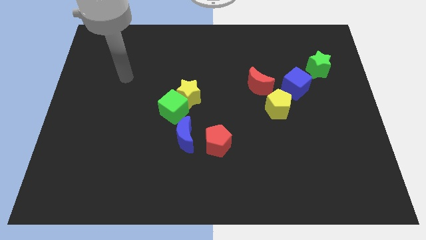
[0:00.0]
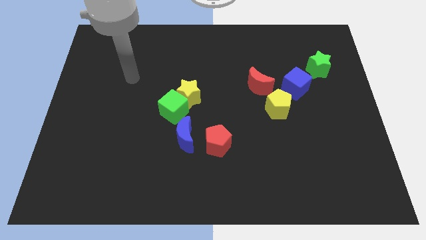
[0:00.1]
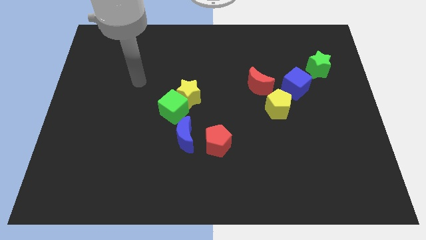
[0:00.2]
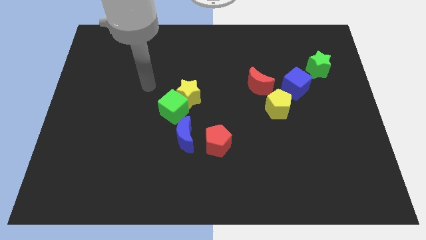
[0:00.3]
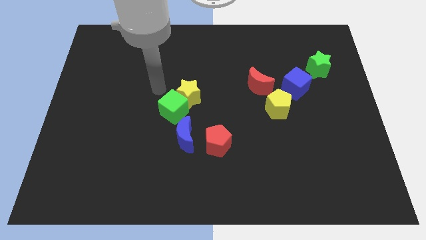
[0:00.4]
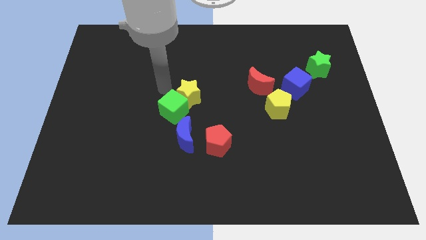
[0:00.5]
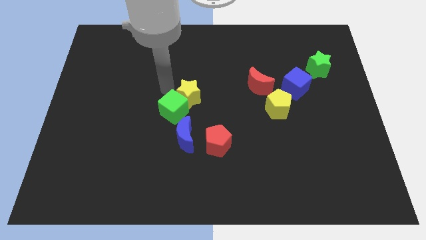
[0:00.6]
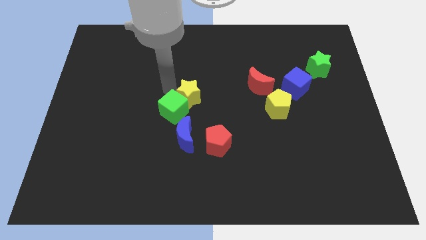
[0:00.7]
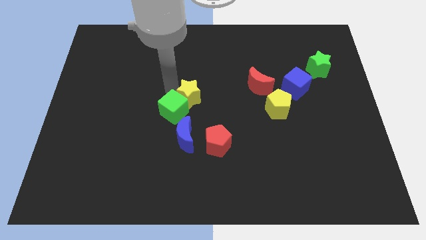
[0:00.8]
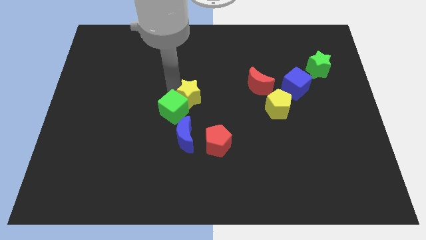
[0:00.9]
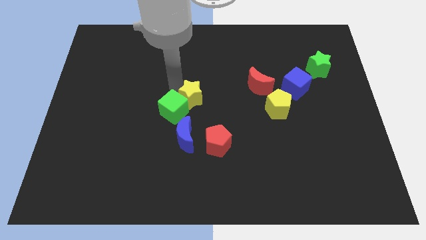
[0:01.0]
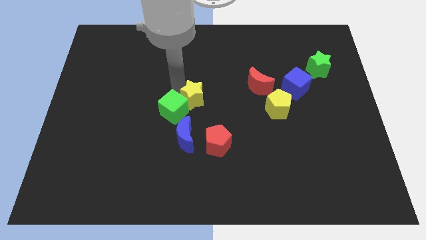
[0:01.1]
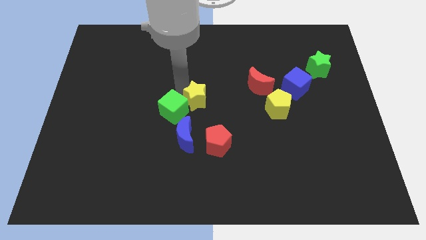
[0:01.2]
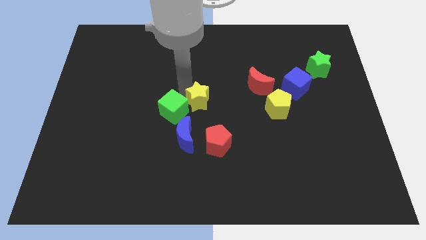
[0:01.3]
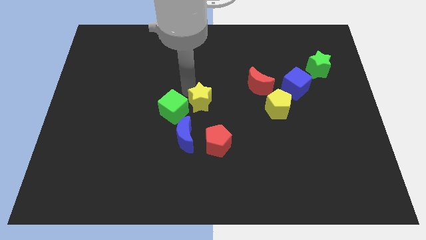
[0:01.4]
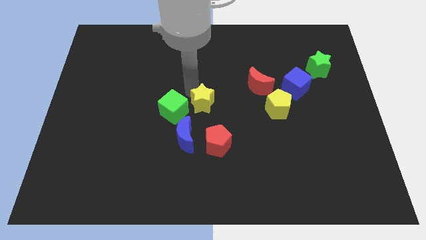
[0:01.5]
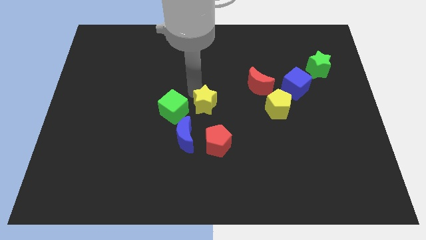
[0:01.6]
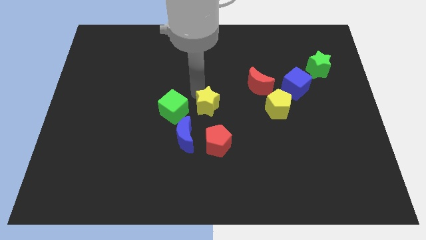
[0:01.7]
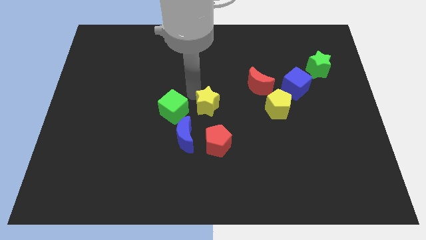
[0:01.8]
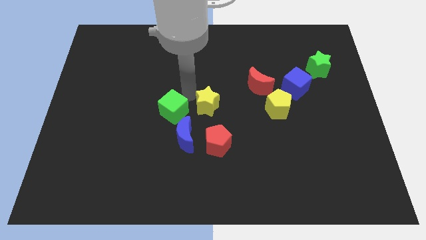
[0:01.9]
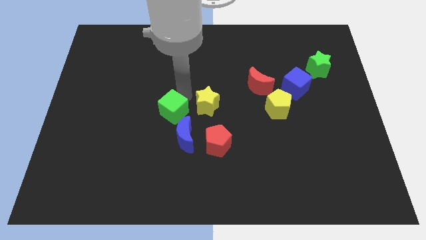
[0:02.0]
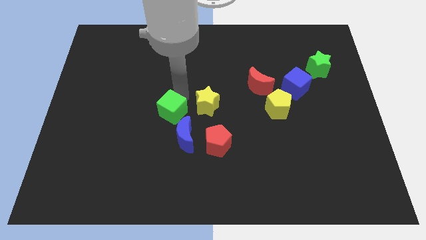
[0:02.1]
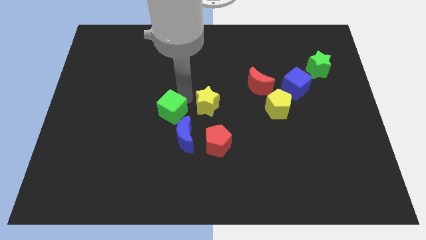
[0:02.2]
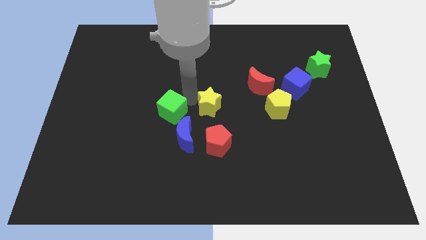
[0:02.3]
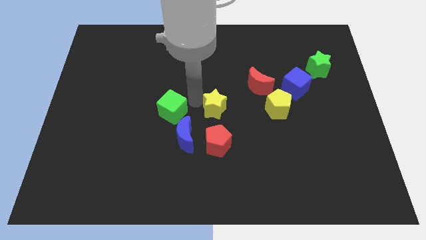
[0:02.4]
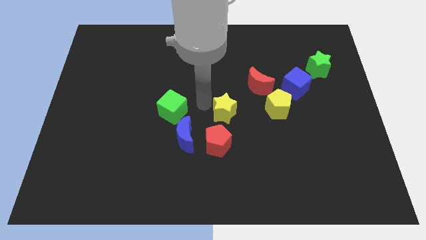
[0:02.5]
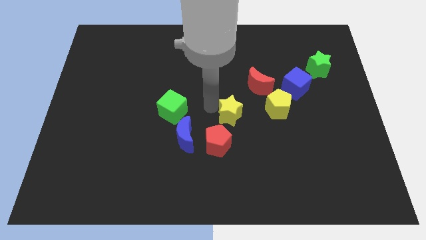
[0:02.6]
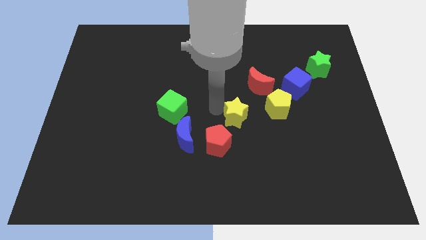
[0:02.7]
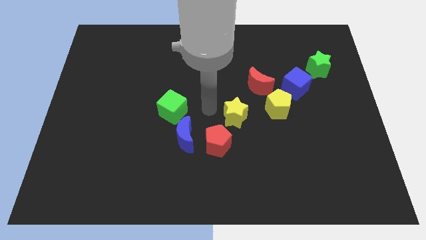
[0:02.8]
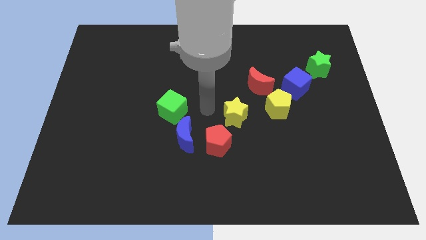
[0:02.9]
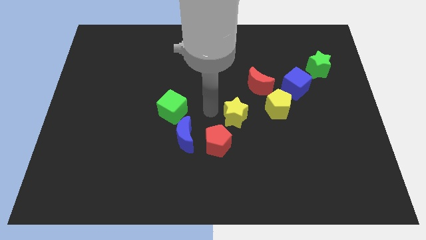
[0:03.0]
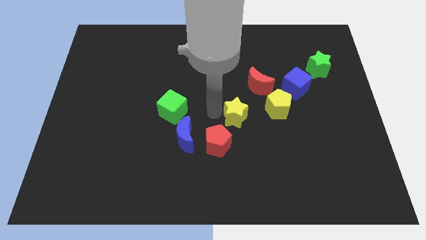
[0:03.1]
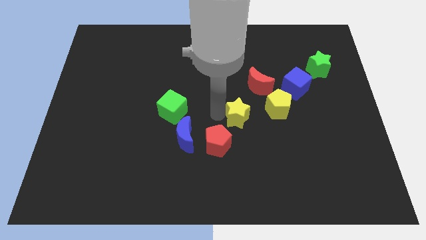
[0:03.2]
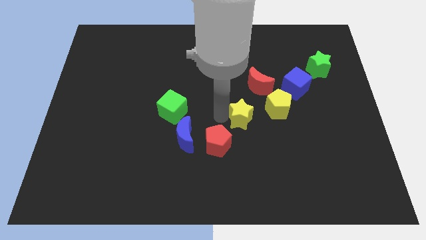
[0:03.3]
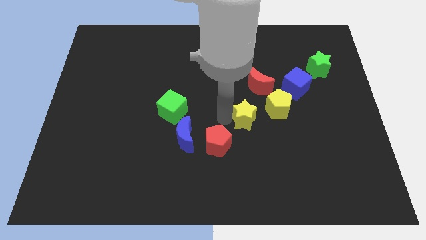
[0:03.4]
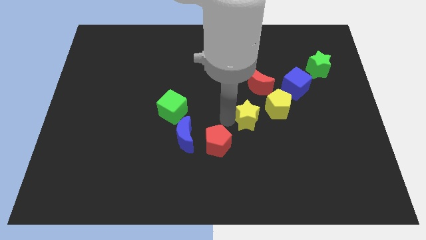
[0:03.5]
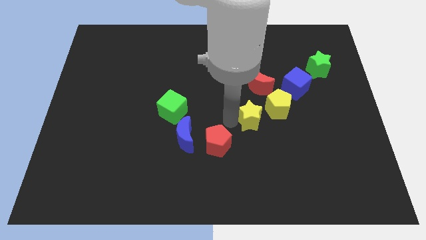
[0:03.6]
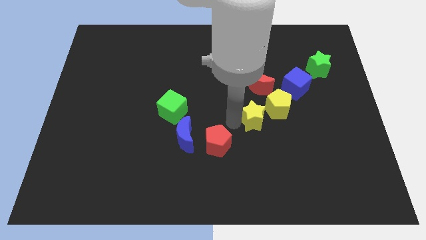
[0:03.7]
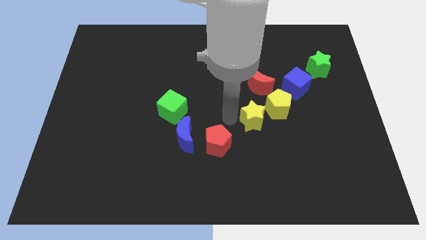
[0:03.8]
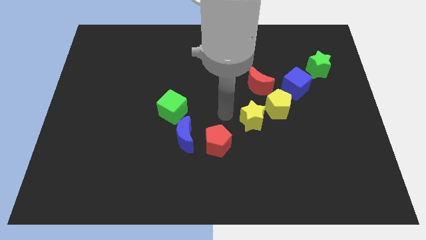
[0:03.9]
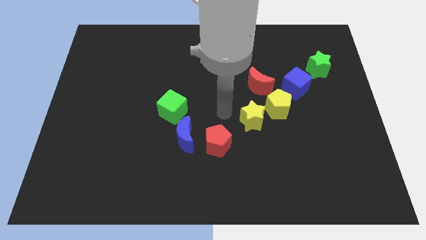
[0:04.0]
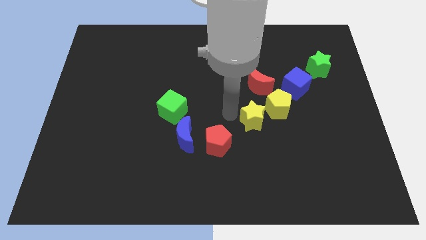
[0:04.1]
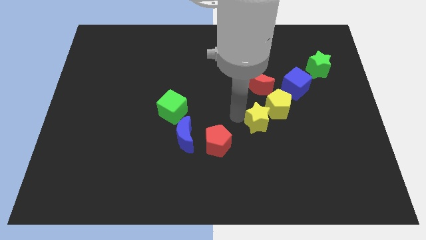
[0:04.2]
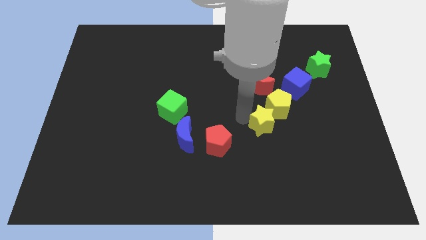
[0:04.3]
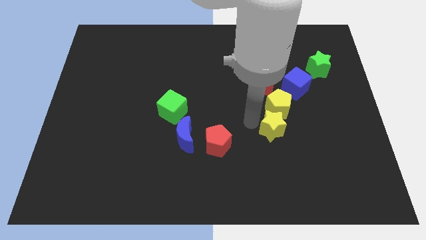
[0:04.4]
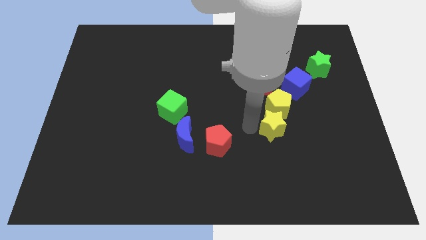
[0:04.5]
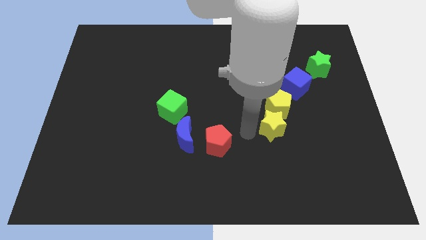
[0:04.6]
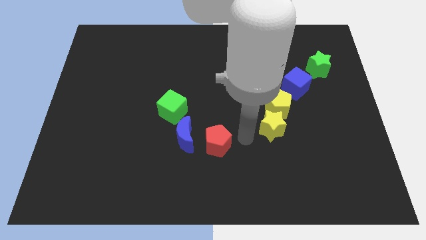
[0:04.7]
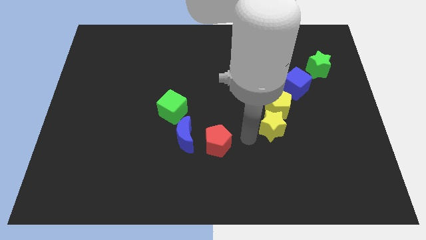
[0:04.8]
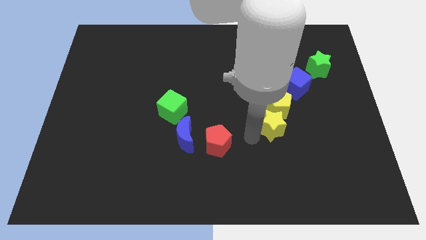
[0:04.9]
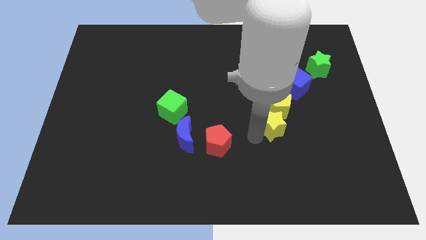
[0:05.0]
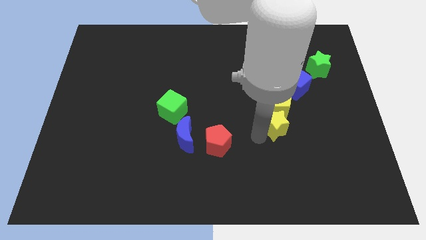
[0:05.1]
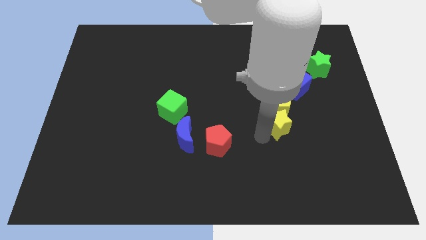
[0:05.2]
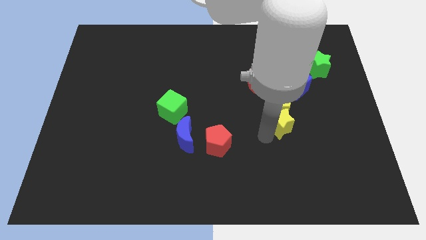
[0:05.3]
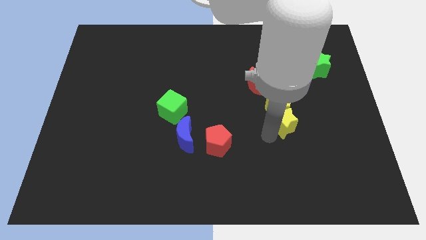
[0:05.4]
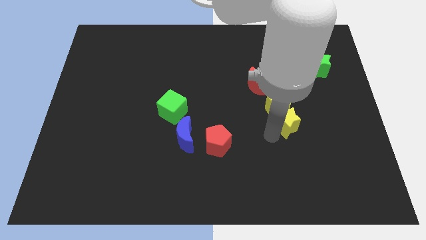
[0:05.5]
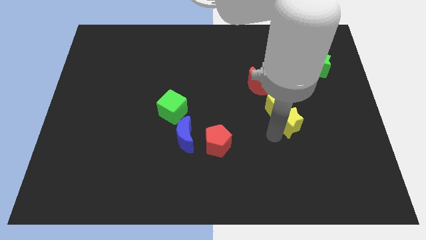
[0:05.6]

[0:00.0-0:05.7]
push the yellow star right

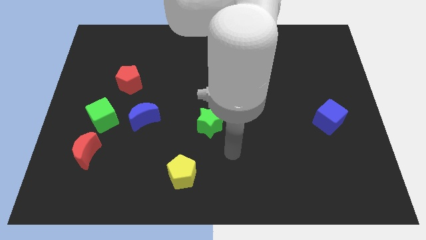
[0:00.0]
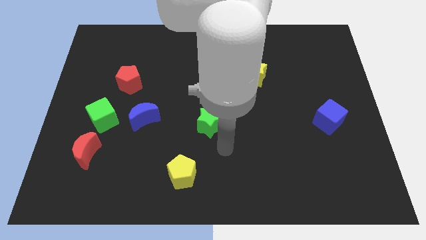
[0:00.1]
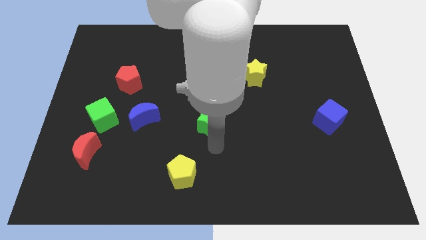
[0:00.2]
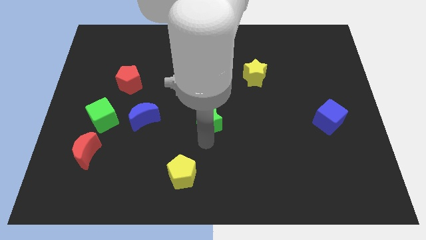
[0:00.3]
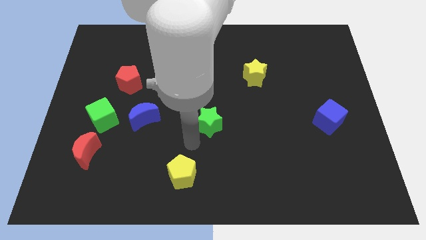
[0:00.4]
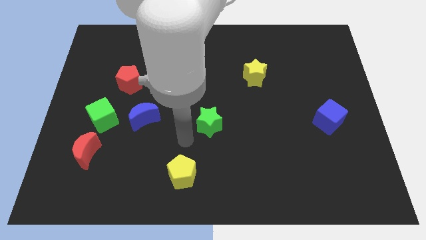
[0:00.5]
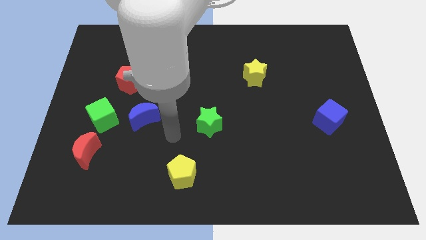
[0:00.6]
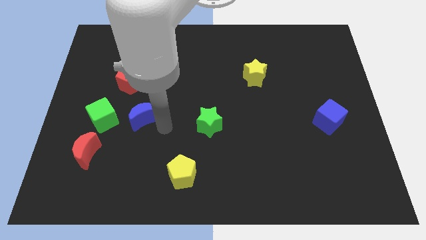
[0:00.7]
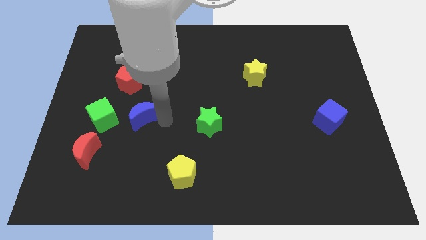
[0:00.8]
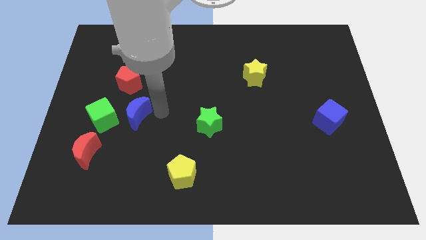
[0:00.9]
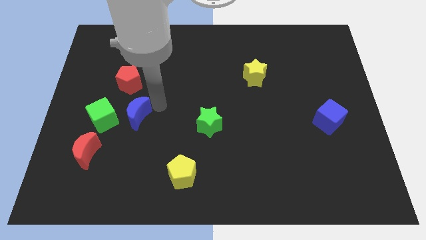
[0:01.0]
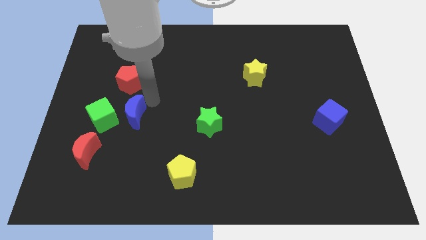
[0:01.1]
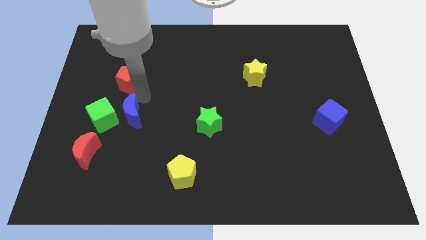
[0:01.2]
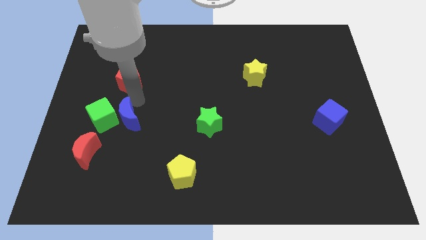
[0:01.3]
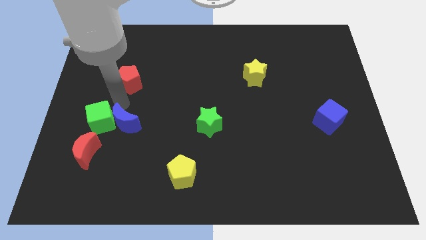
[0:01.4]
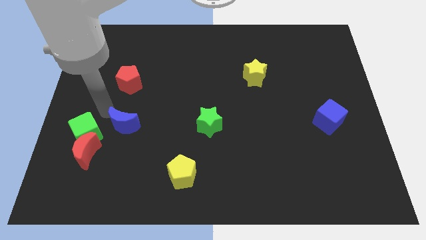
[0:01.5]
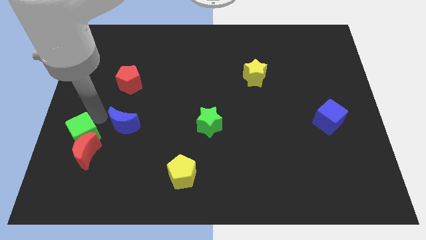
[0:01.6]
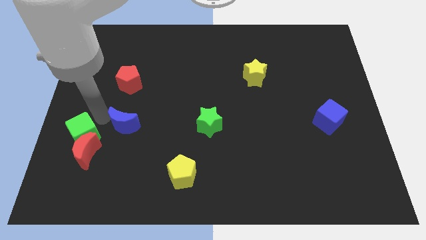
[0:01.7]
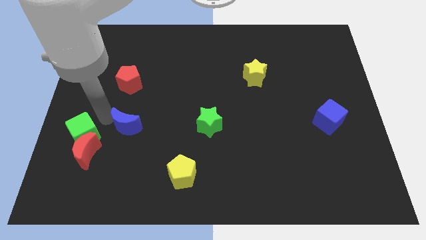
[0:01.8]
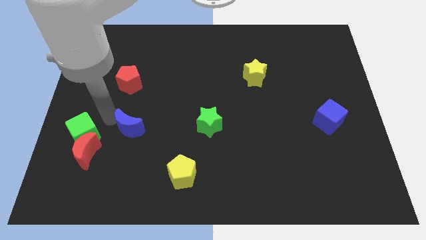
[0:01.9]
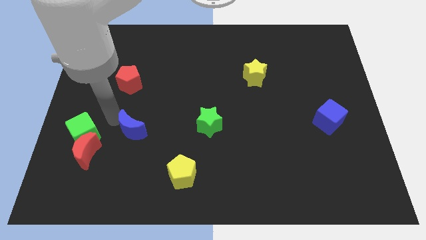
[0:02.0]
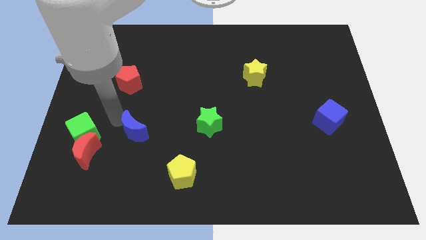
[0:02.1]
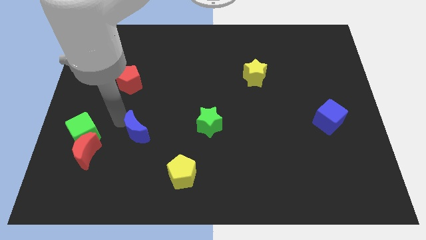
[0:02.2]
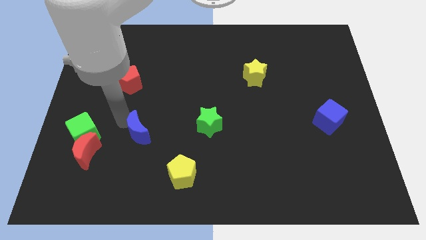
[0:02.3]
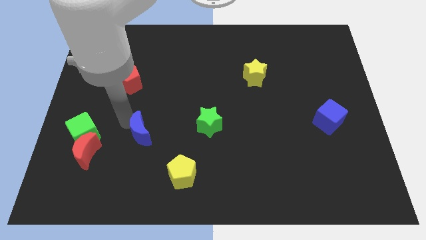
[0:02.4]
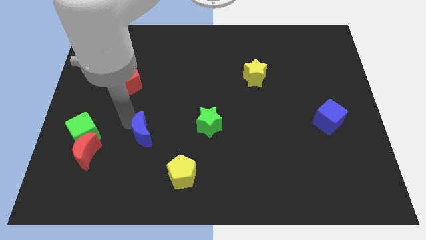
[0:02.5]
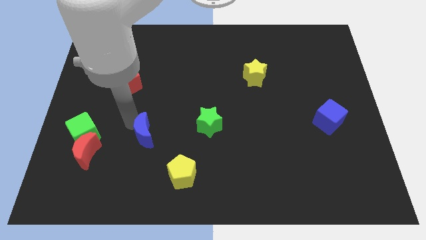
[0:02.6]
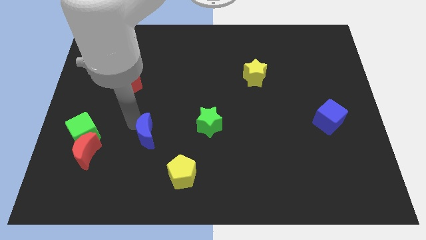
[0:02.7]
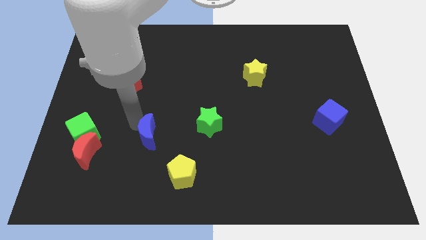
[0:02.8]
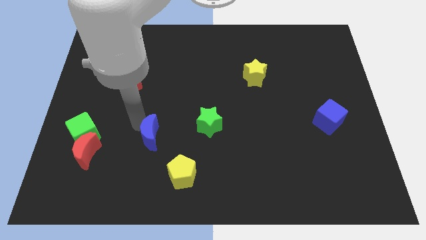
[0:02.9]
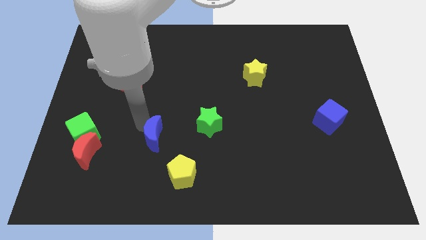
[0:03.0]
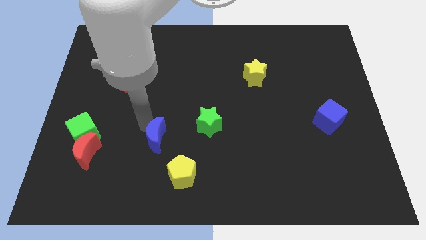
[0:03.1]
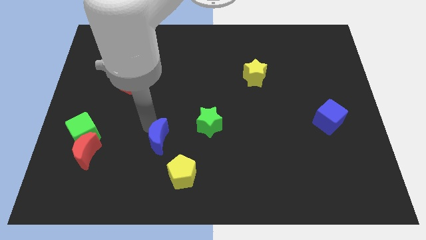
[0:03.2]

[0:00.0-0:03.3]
move the blue moon somewhat downwards and to the right diagonally
